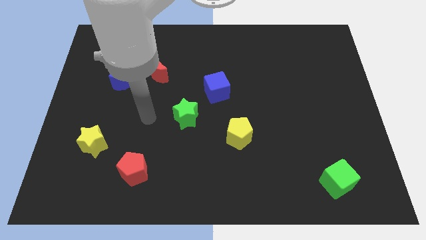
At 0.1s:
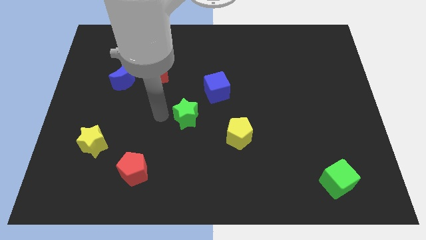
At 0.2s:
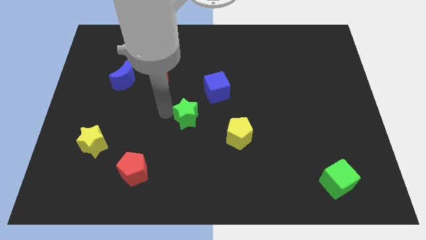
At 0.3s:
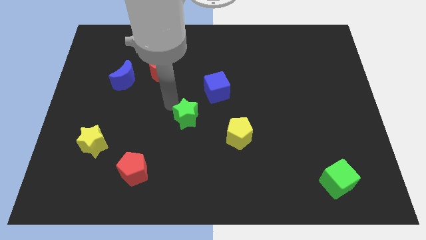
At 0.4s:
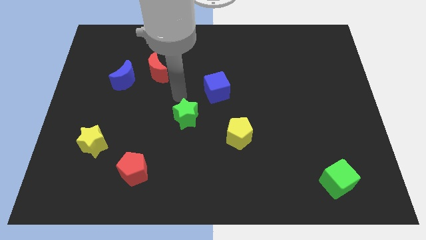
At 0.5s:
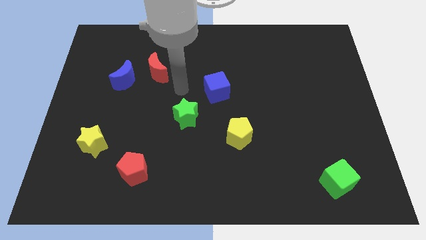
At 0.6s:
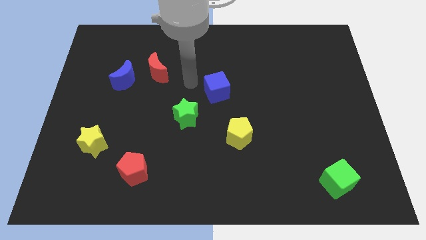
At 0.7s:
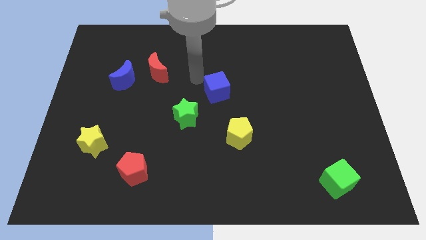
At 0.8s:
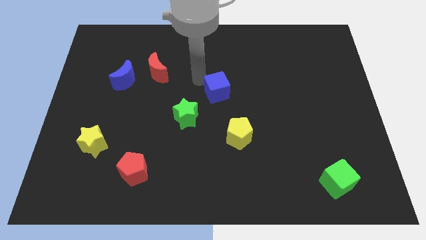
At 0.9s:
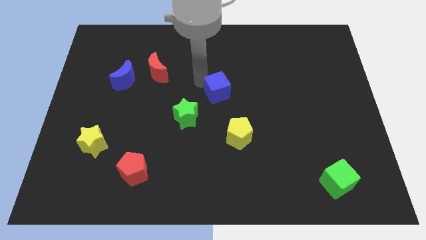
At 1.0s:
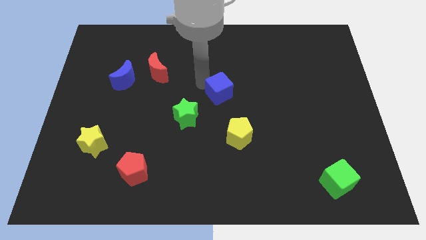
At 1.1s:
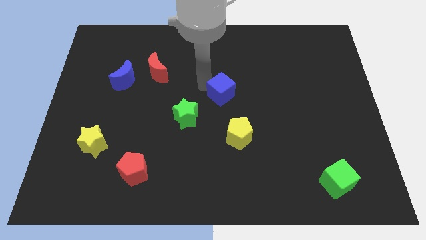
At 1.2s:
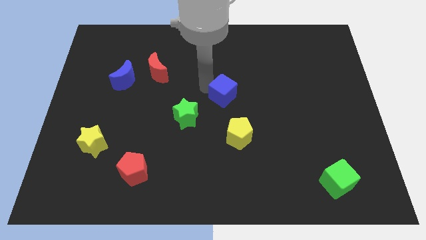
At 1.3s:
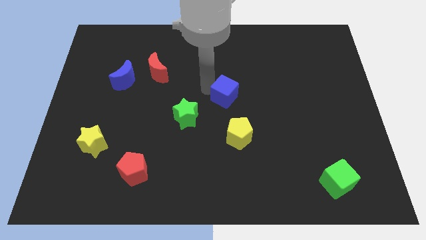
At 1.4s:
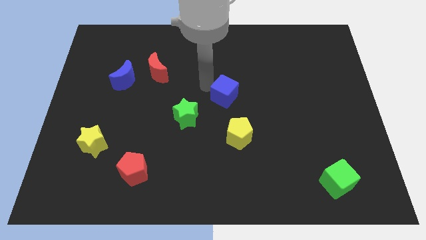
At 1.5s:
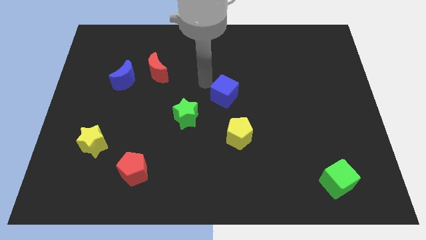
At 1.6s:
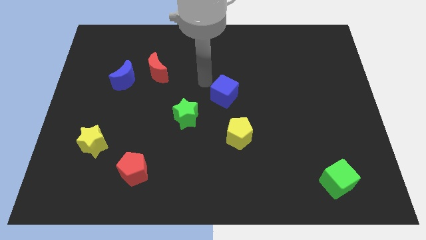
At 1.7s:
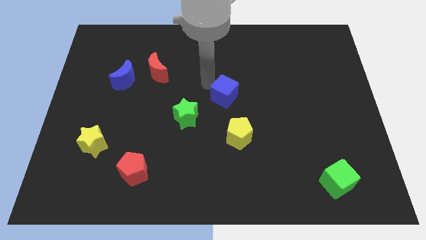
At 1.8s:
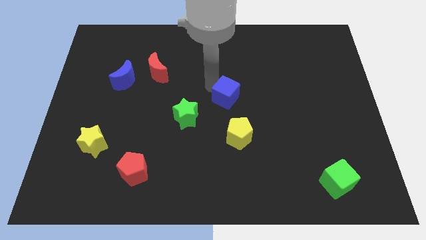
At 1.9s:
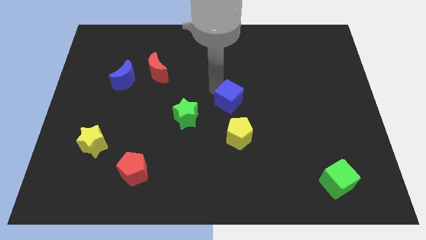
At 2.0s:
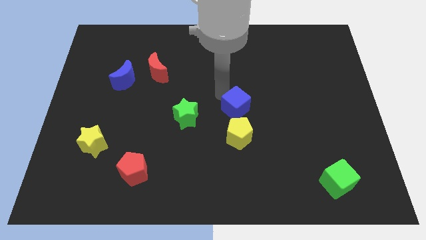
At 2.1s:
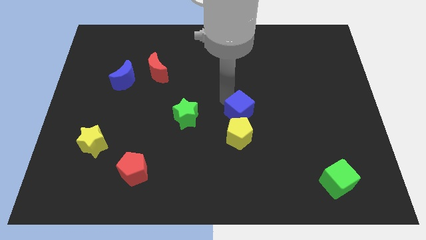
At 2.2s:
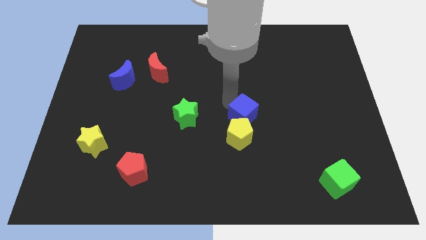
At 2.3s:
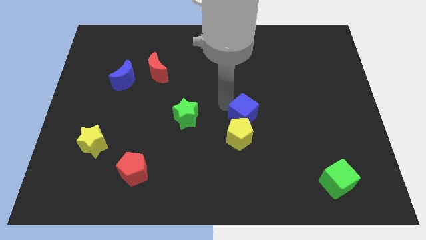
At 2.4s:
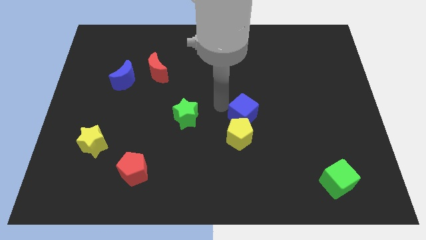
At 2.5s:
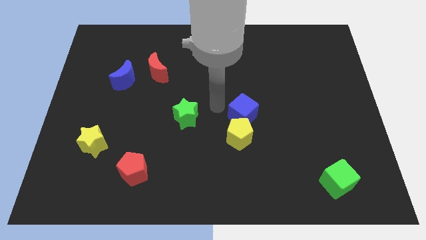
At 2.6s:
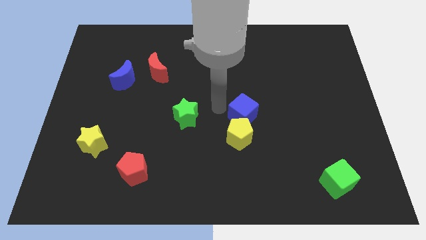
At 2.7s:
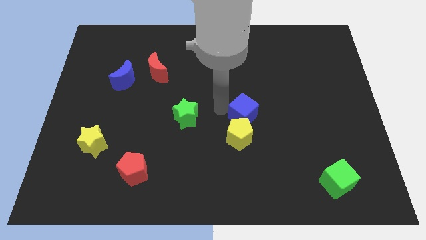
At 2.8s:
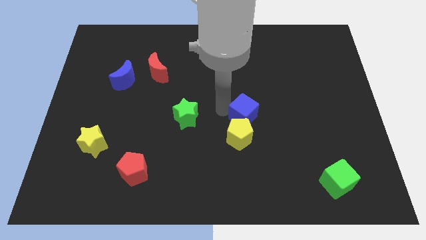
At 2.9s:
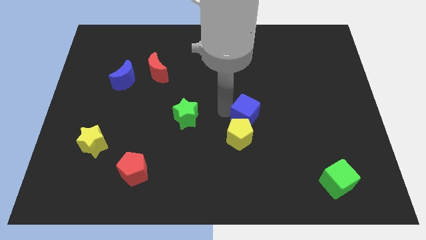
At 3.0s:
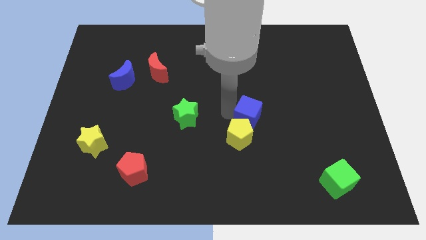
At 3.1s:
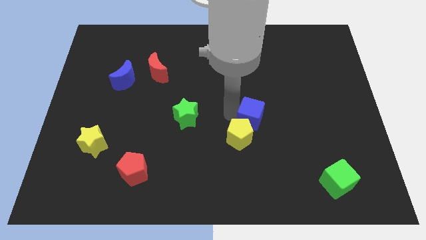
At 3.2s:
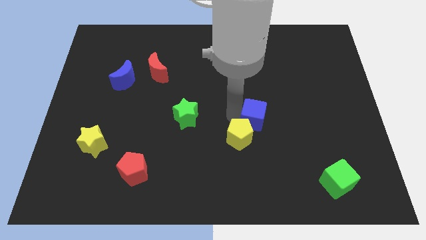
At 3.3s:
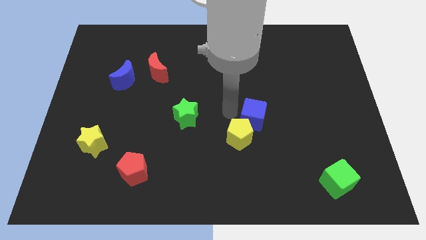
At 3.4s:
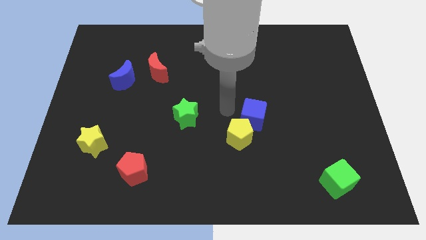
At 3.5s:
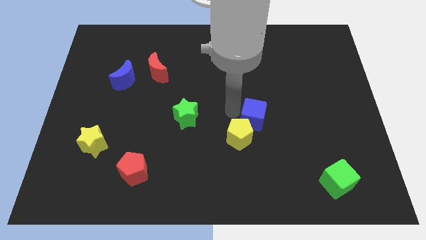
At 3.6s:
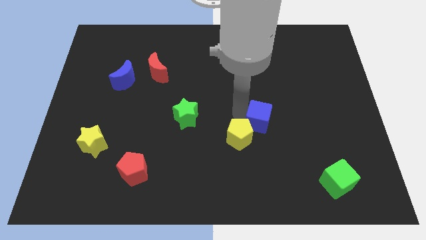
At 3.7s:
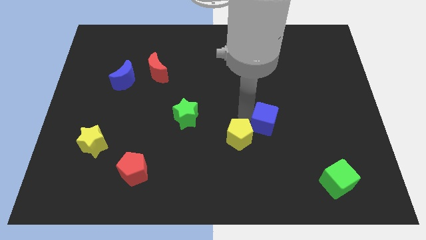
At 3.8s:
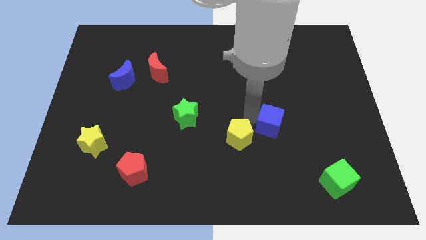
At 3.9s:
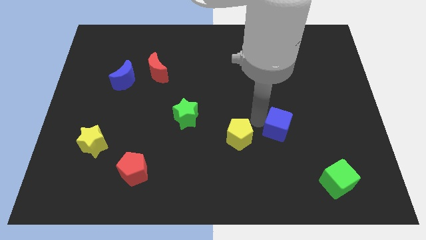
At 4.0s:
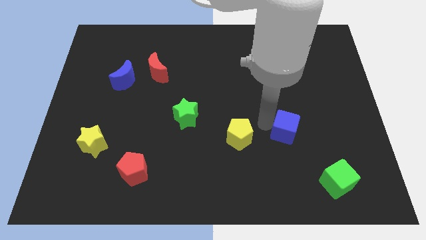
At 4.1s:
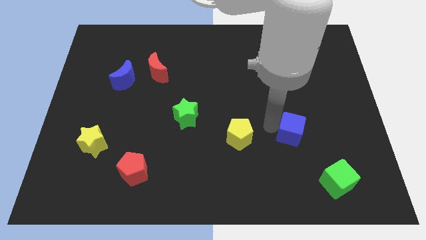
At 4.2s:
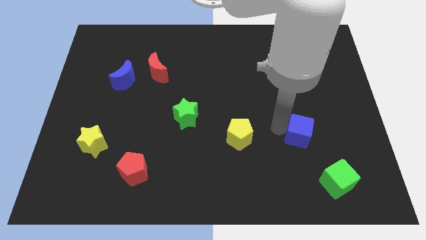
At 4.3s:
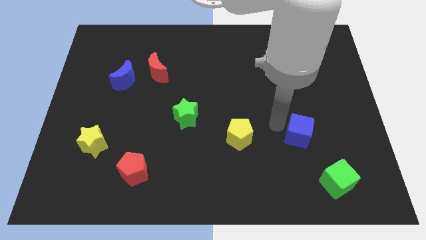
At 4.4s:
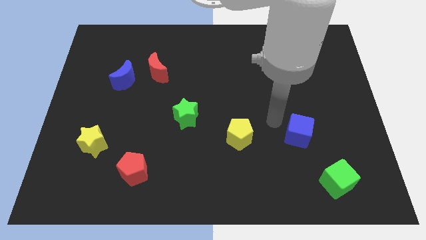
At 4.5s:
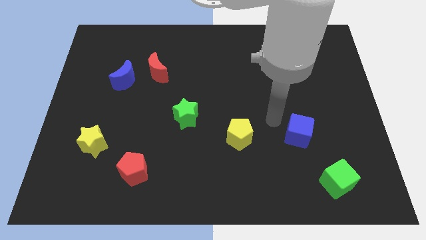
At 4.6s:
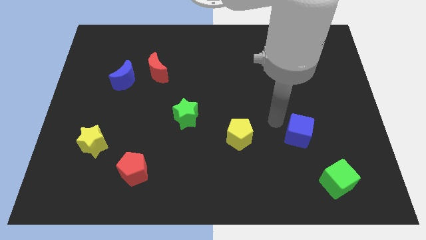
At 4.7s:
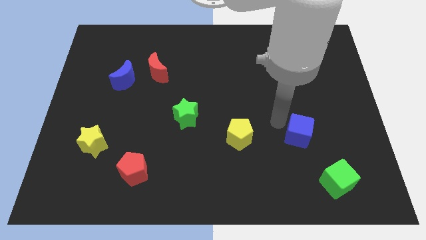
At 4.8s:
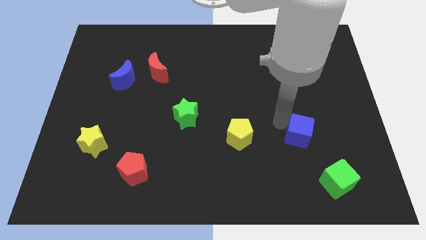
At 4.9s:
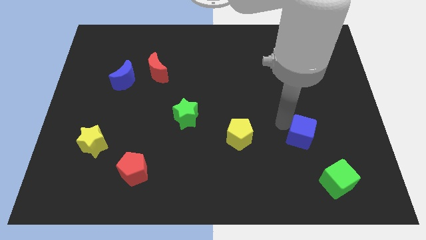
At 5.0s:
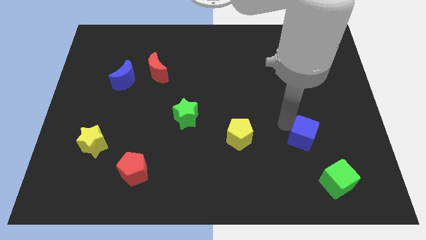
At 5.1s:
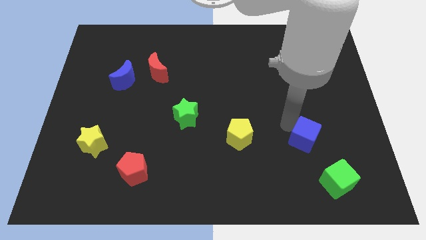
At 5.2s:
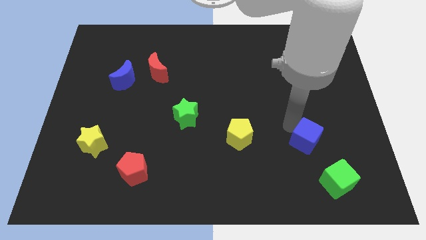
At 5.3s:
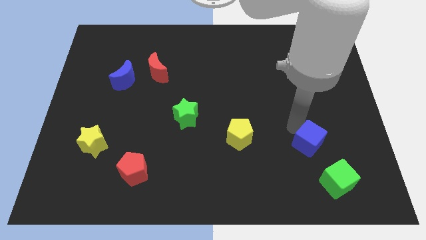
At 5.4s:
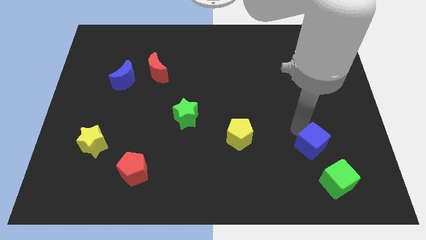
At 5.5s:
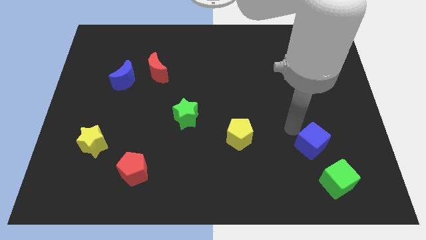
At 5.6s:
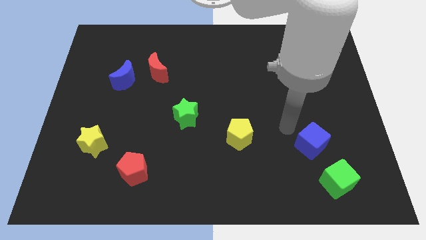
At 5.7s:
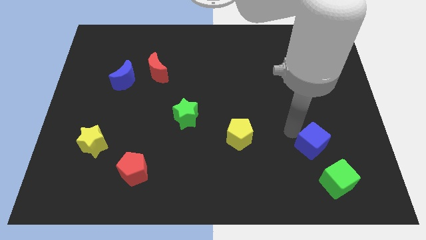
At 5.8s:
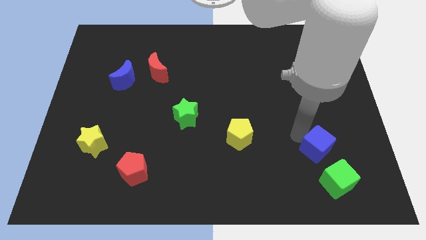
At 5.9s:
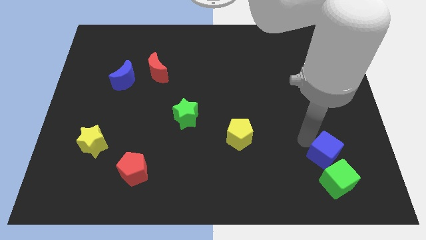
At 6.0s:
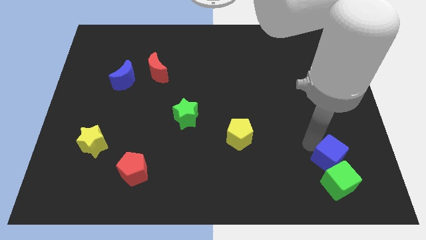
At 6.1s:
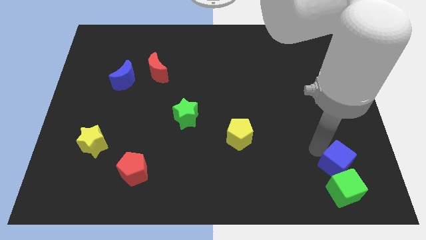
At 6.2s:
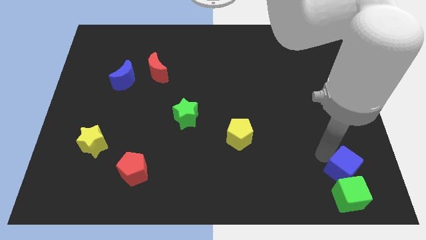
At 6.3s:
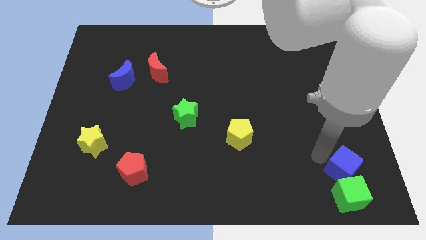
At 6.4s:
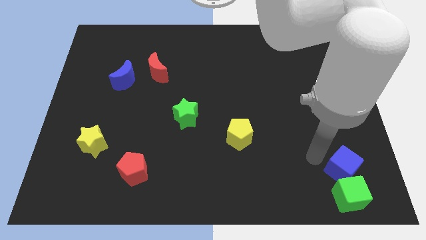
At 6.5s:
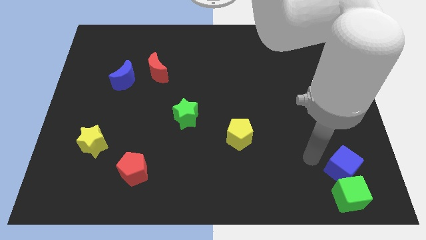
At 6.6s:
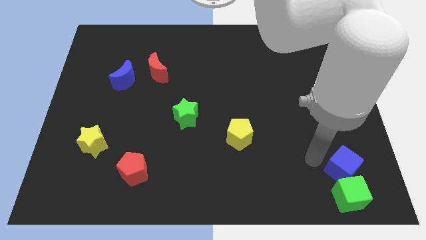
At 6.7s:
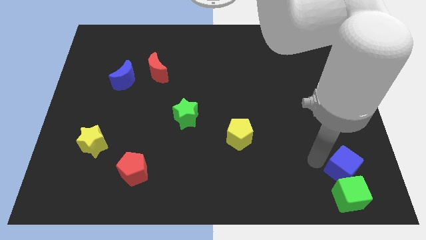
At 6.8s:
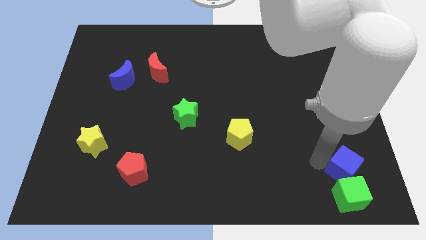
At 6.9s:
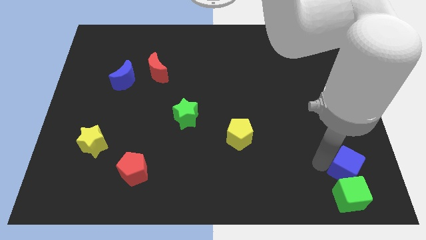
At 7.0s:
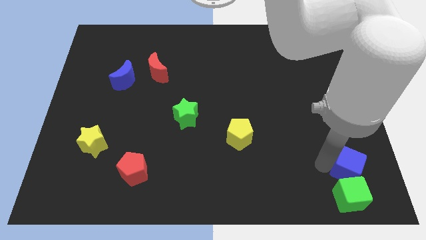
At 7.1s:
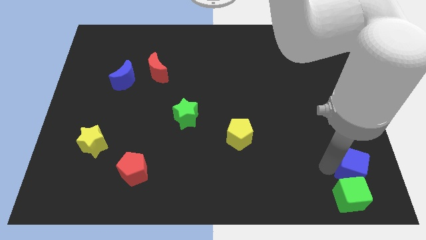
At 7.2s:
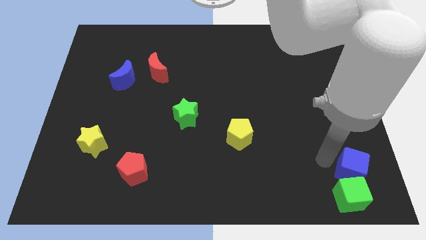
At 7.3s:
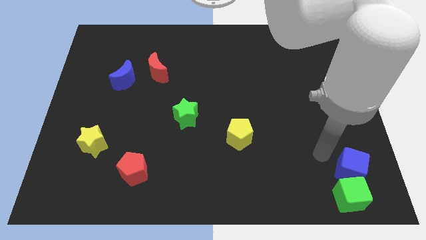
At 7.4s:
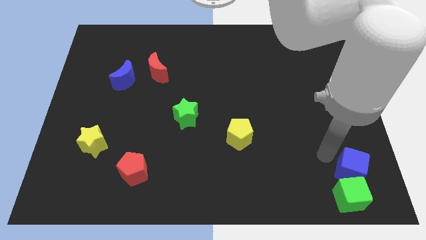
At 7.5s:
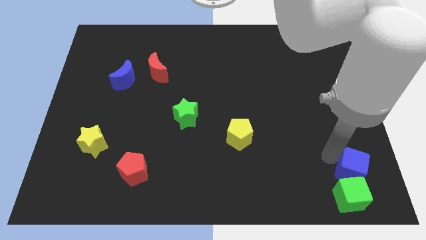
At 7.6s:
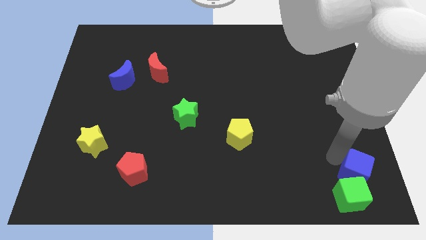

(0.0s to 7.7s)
push the blue cube to the lower right corner
